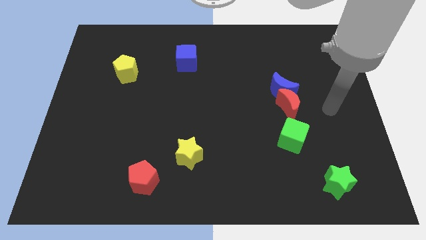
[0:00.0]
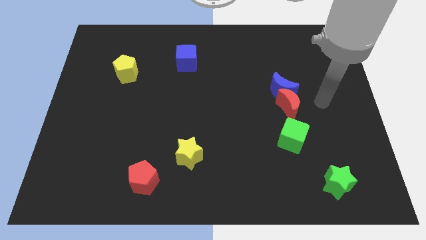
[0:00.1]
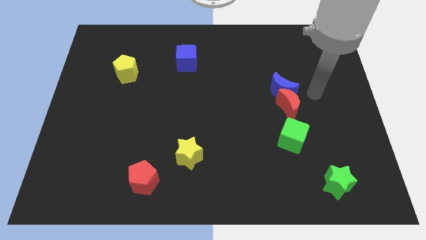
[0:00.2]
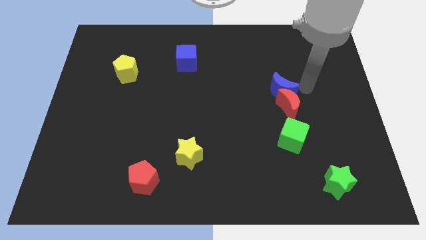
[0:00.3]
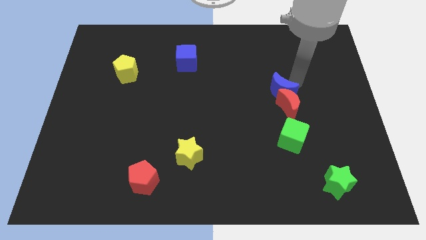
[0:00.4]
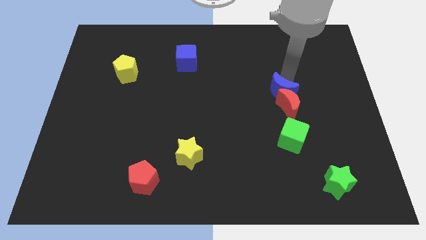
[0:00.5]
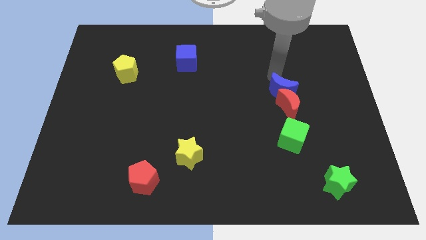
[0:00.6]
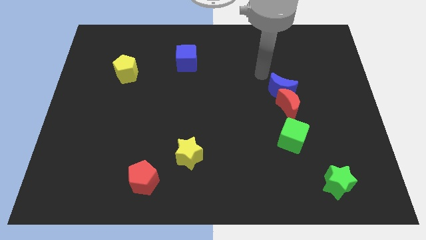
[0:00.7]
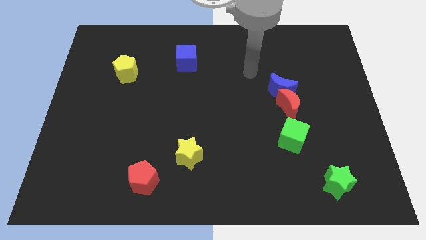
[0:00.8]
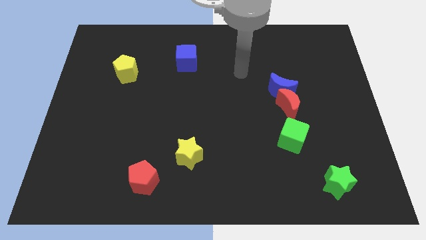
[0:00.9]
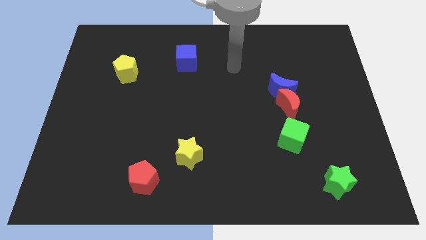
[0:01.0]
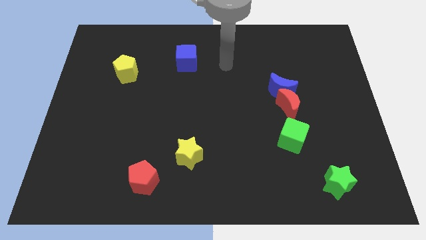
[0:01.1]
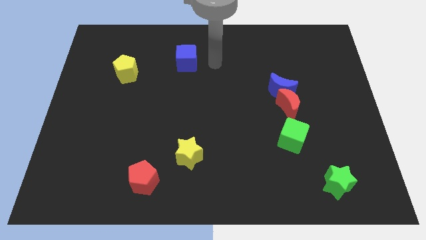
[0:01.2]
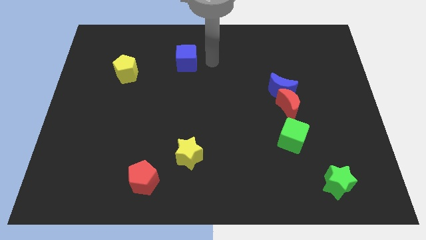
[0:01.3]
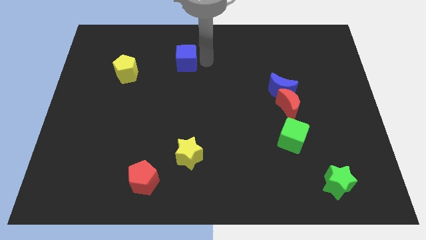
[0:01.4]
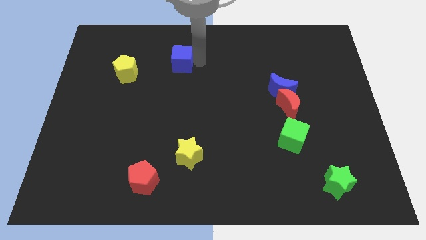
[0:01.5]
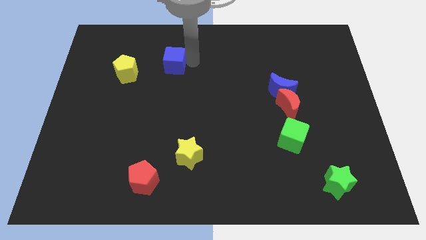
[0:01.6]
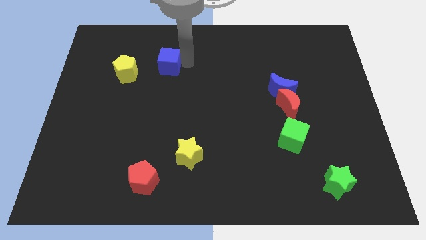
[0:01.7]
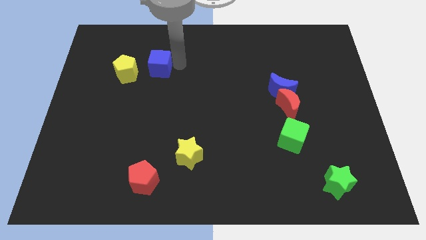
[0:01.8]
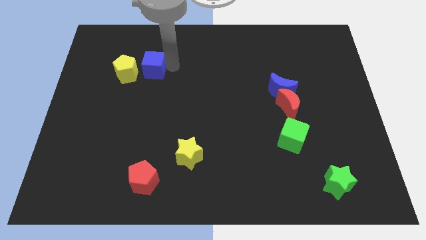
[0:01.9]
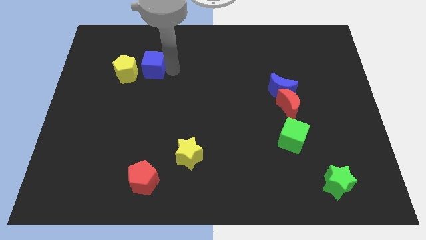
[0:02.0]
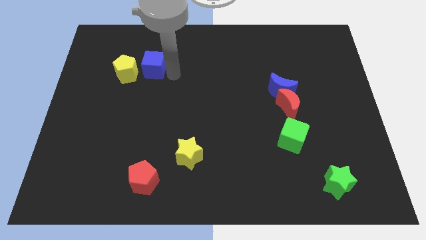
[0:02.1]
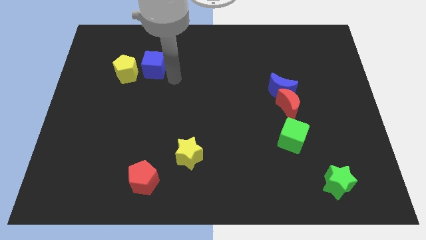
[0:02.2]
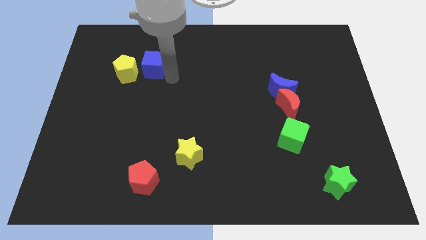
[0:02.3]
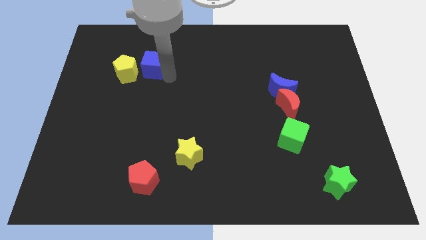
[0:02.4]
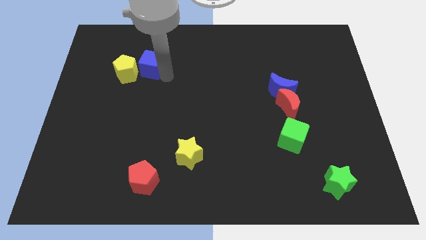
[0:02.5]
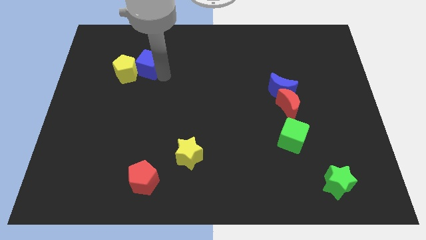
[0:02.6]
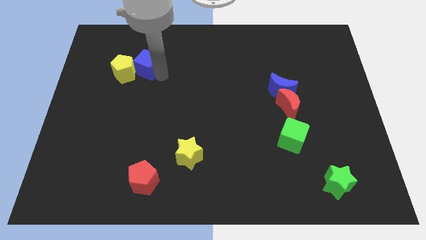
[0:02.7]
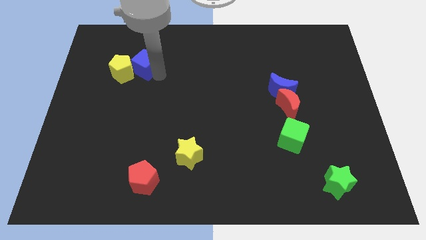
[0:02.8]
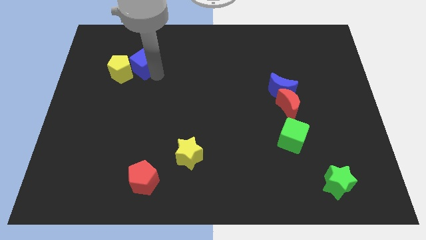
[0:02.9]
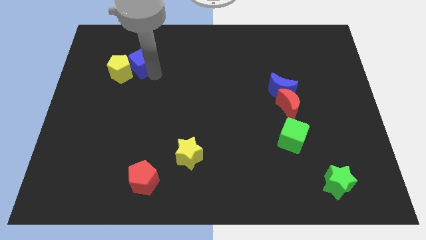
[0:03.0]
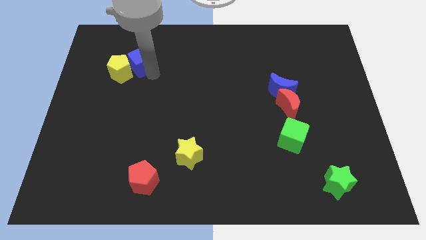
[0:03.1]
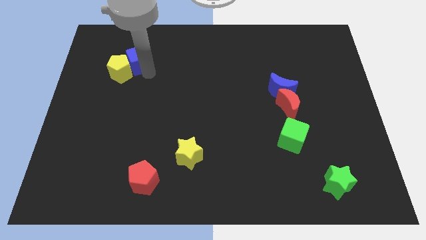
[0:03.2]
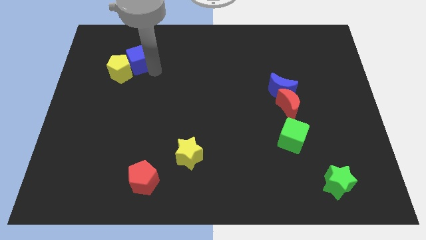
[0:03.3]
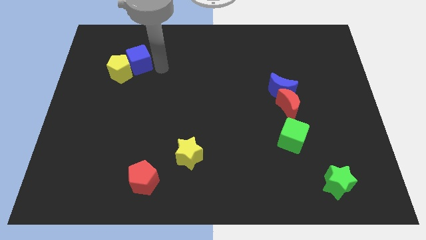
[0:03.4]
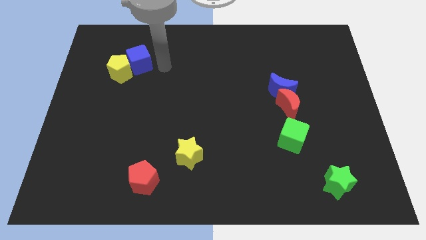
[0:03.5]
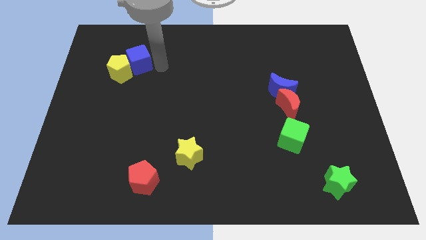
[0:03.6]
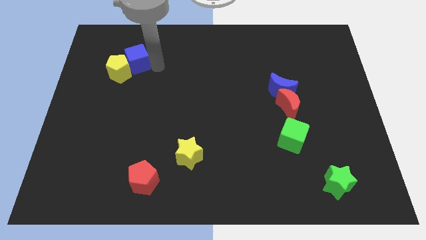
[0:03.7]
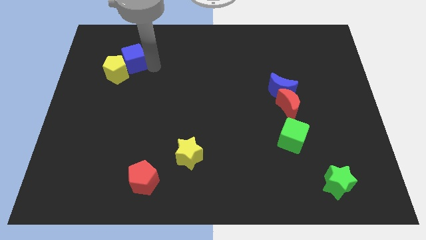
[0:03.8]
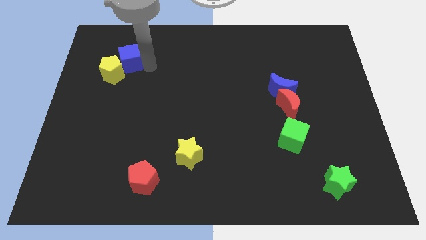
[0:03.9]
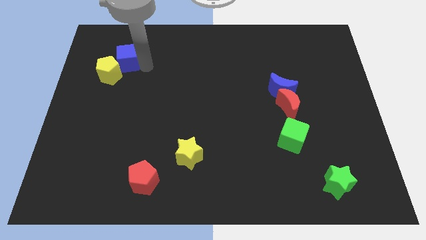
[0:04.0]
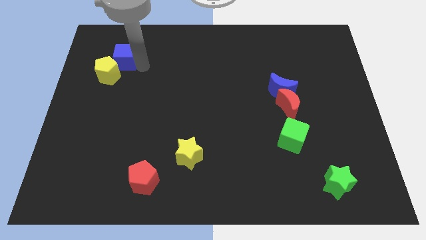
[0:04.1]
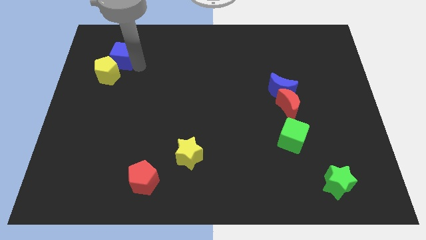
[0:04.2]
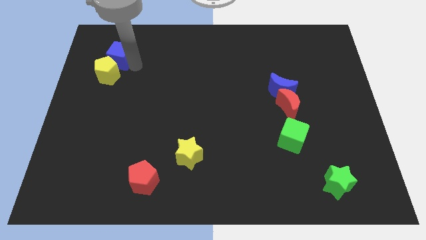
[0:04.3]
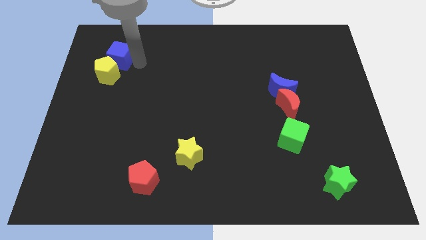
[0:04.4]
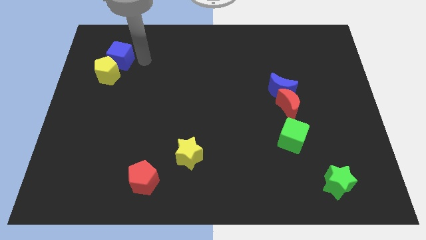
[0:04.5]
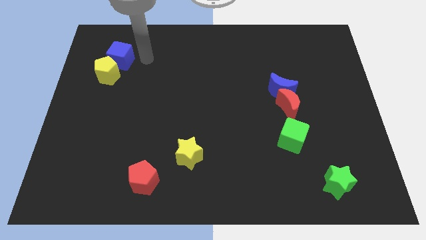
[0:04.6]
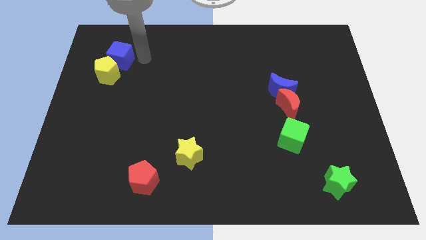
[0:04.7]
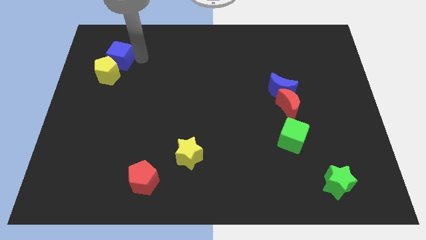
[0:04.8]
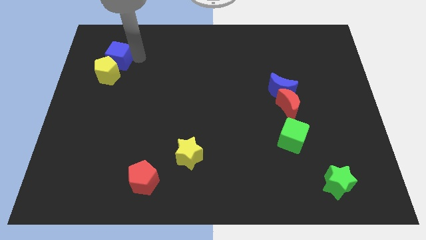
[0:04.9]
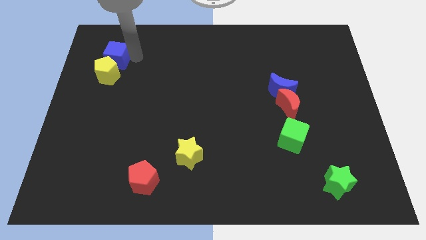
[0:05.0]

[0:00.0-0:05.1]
slide the blue cube diagonally up and to the left of the yellow pentagon

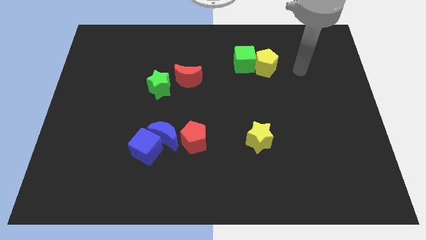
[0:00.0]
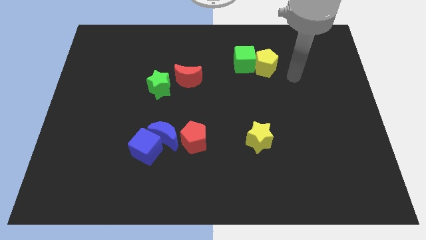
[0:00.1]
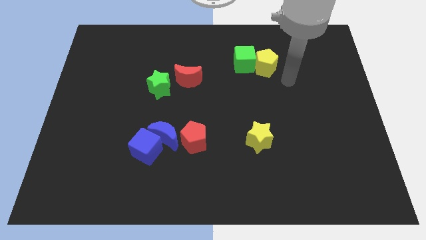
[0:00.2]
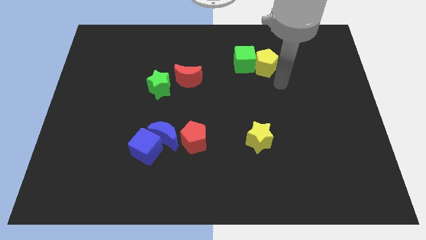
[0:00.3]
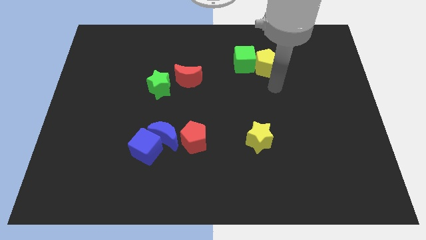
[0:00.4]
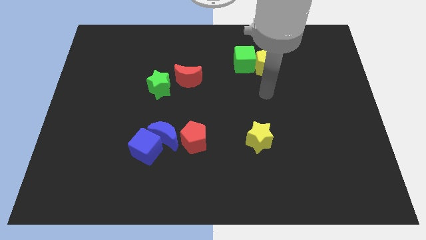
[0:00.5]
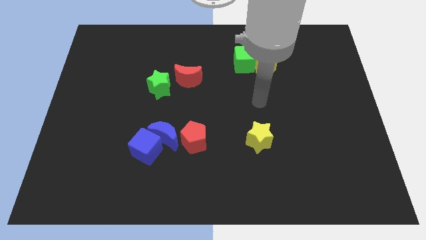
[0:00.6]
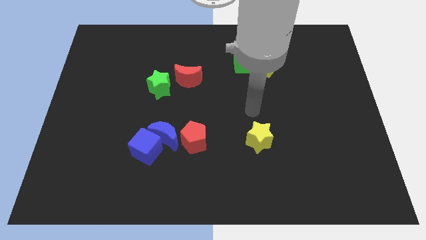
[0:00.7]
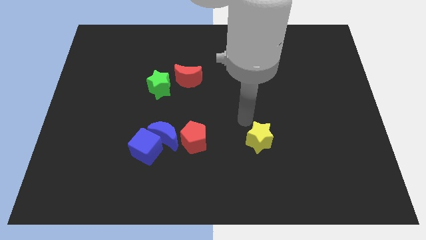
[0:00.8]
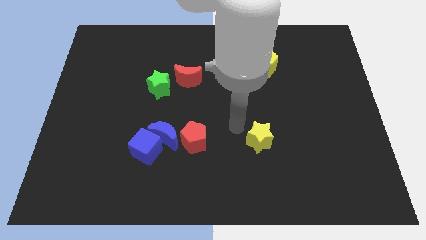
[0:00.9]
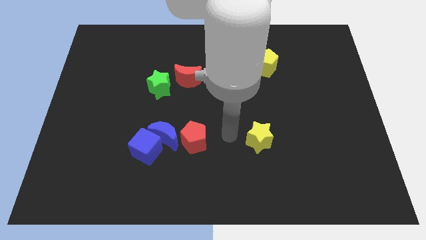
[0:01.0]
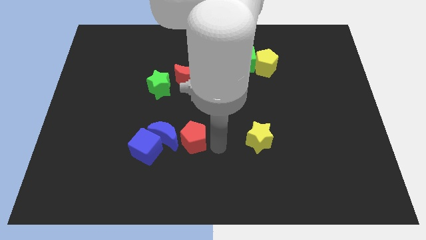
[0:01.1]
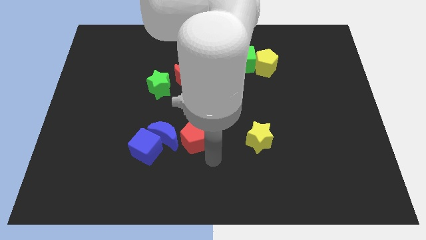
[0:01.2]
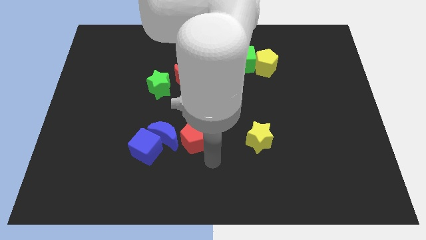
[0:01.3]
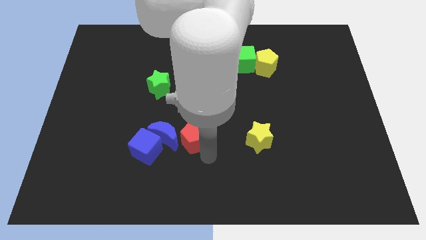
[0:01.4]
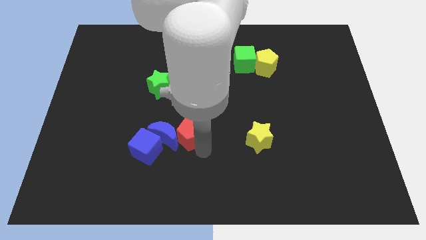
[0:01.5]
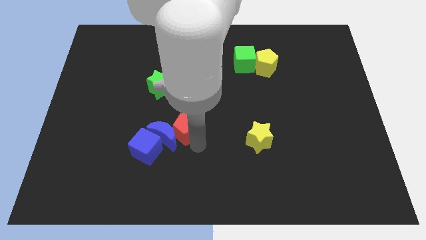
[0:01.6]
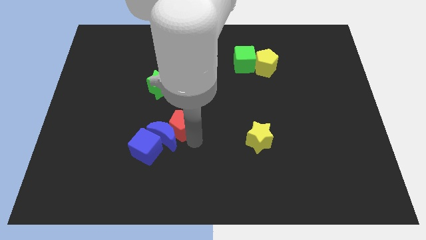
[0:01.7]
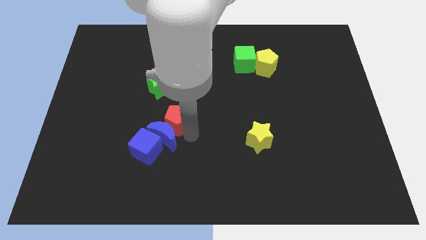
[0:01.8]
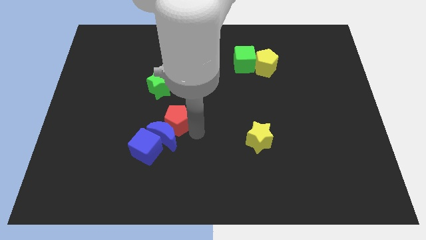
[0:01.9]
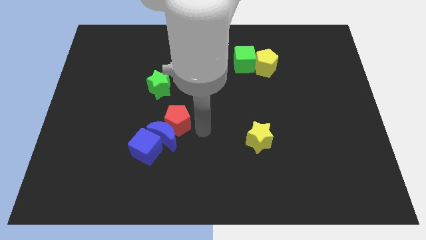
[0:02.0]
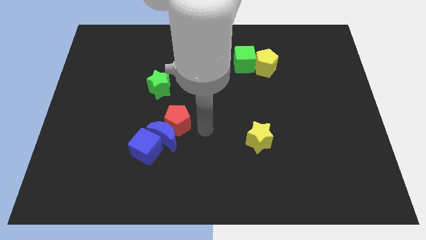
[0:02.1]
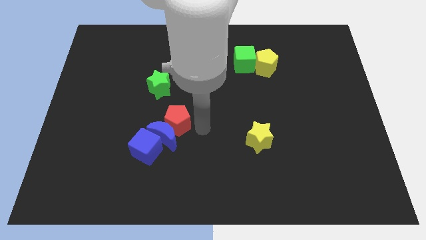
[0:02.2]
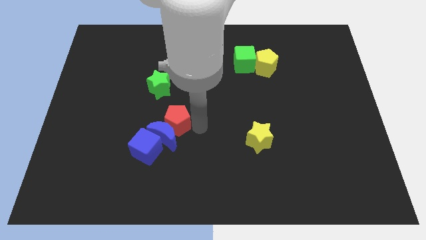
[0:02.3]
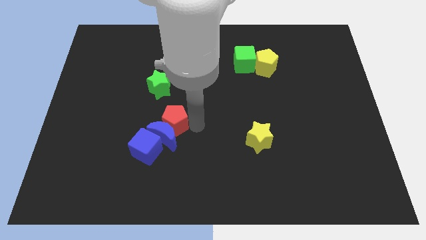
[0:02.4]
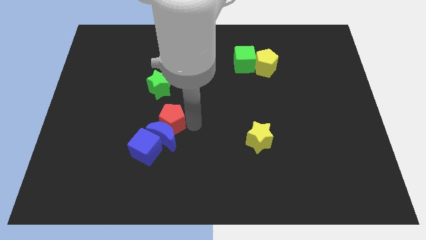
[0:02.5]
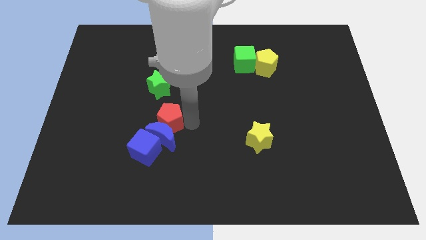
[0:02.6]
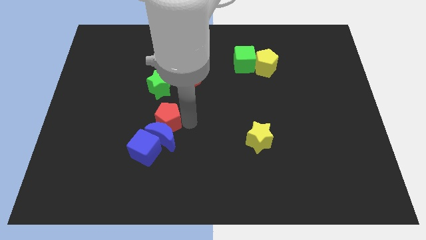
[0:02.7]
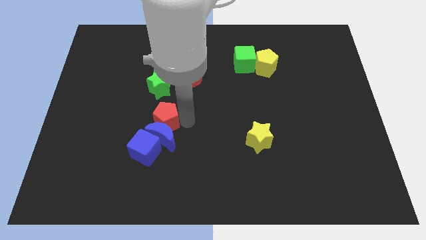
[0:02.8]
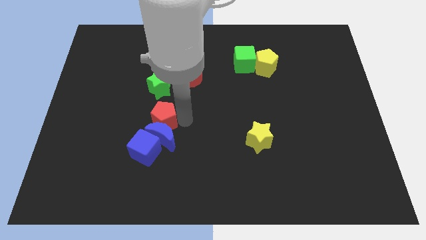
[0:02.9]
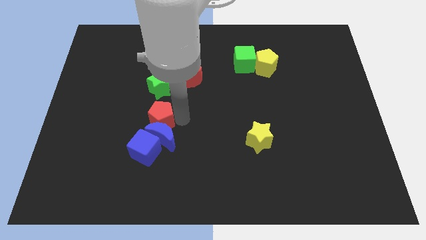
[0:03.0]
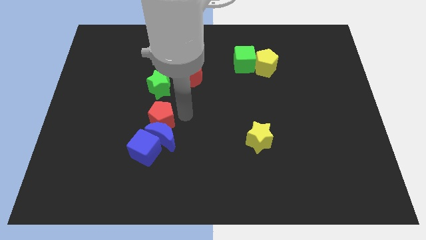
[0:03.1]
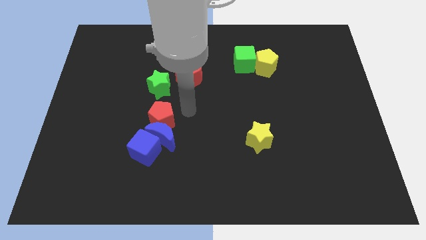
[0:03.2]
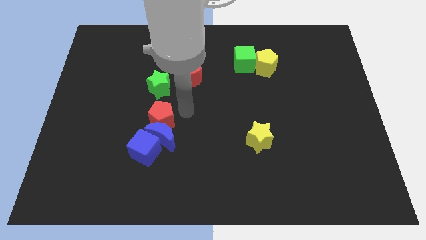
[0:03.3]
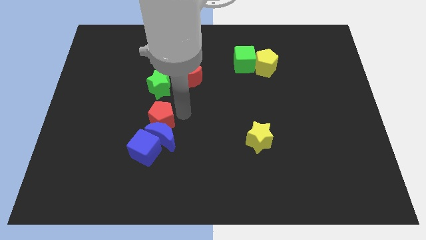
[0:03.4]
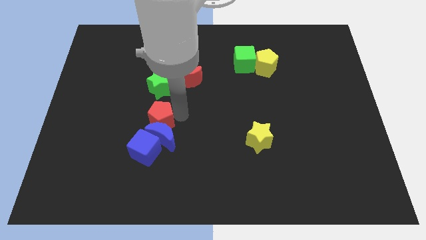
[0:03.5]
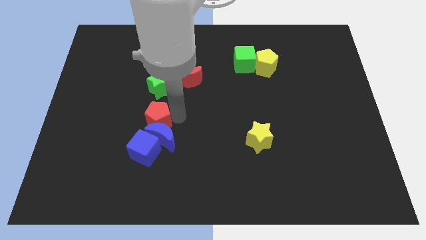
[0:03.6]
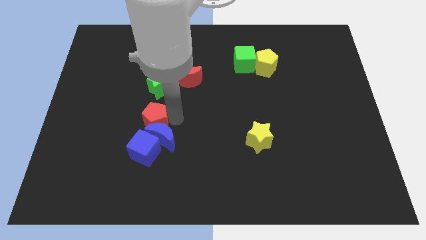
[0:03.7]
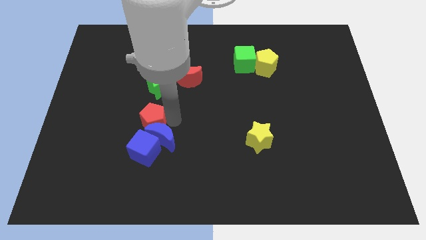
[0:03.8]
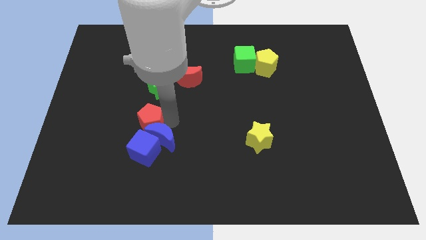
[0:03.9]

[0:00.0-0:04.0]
push the red pentagon left of the blue moon
